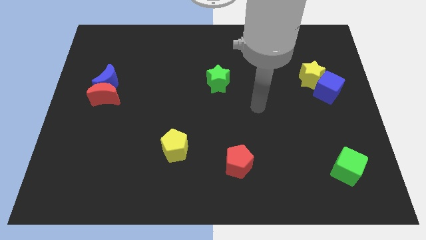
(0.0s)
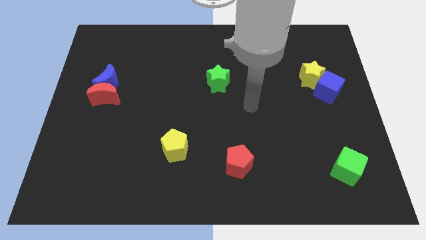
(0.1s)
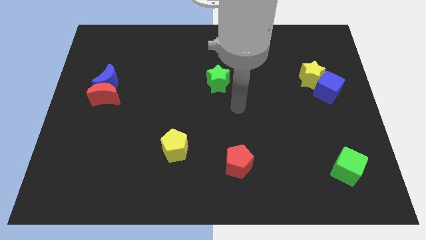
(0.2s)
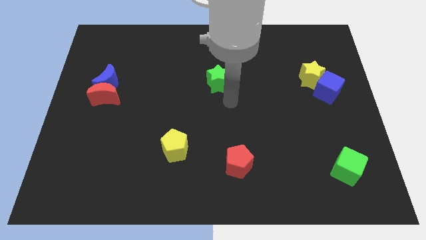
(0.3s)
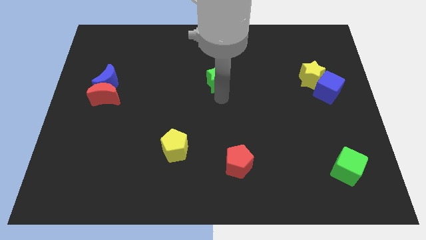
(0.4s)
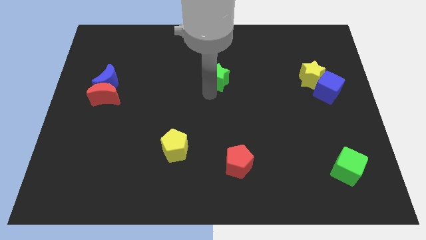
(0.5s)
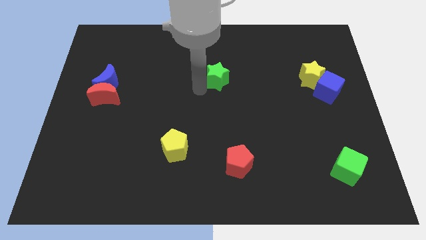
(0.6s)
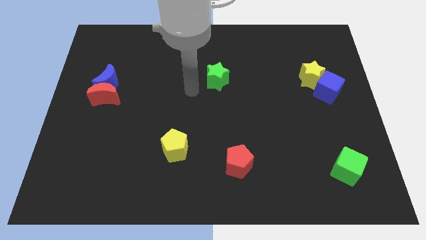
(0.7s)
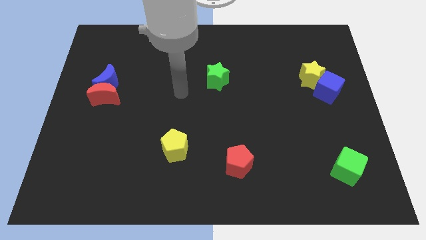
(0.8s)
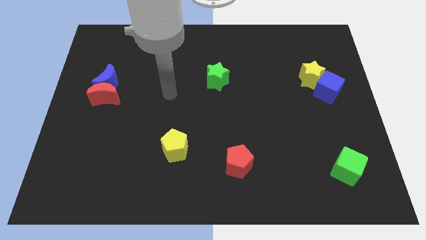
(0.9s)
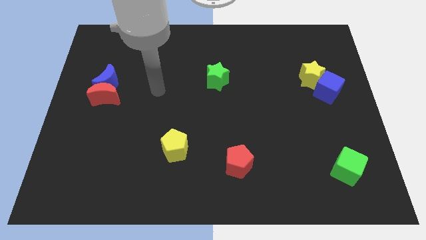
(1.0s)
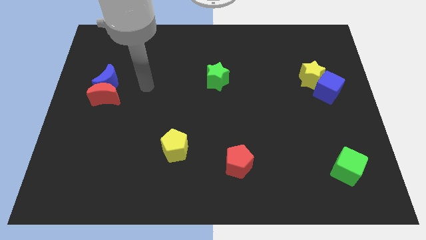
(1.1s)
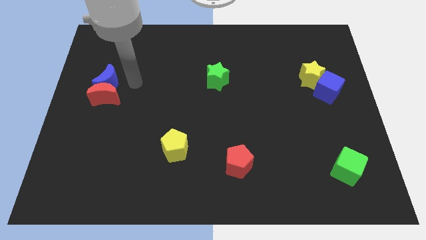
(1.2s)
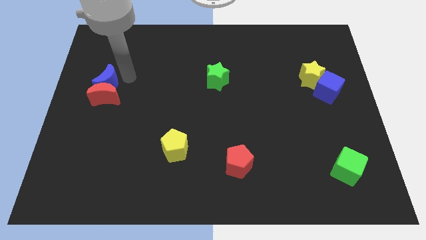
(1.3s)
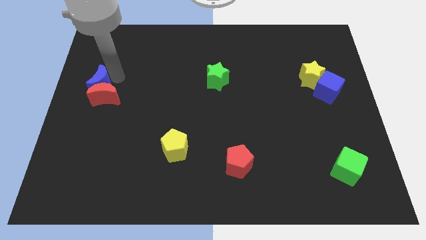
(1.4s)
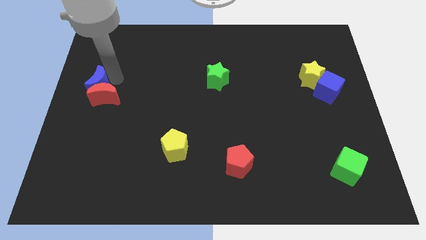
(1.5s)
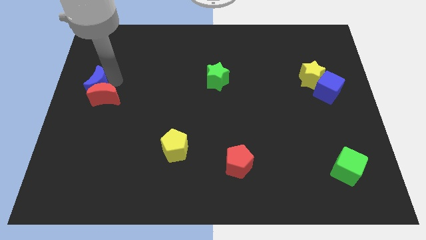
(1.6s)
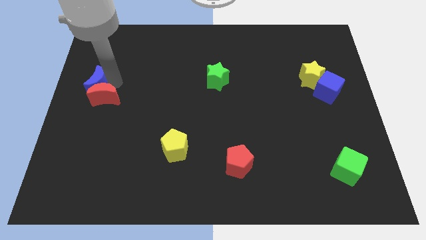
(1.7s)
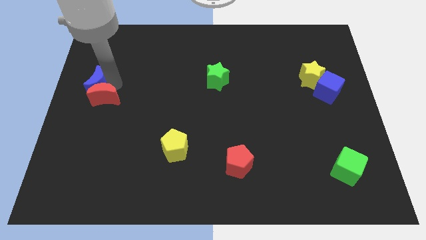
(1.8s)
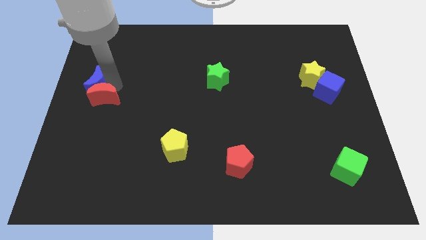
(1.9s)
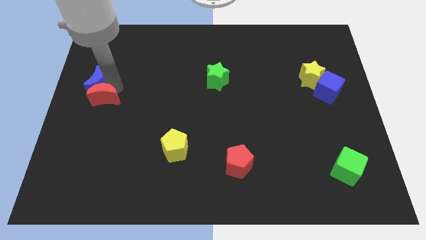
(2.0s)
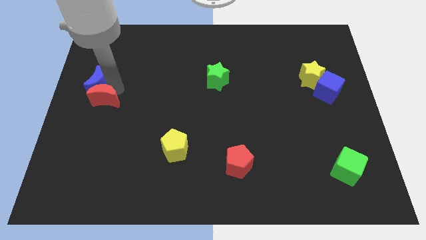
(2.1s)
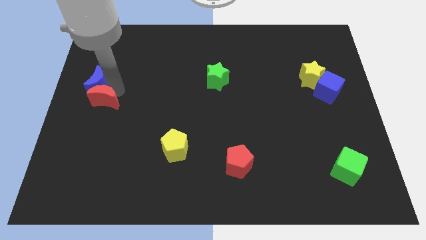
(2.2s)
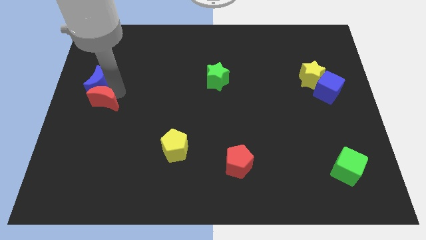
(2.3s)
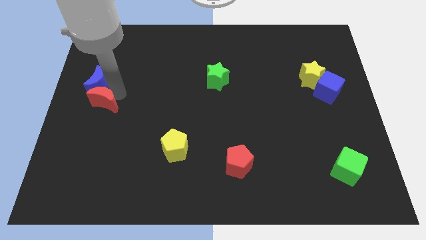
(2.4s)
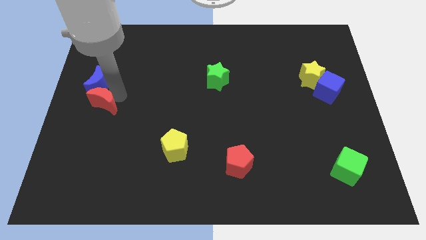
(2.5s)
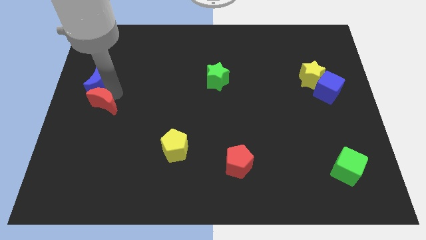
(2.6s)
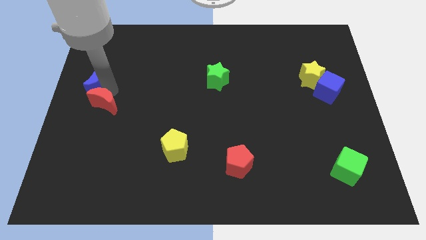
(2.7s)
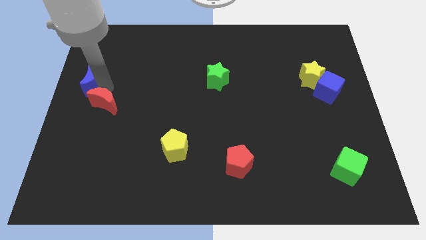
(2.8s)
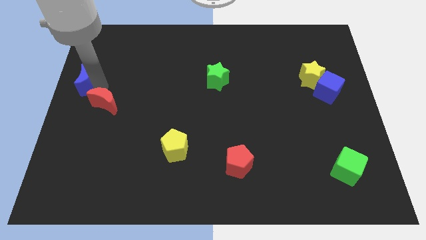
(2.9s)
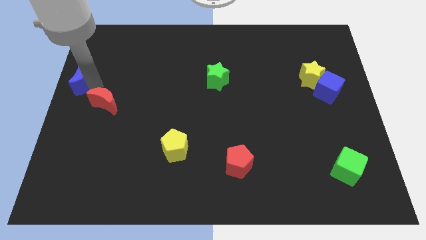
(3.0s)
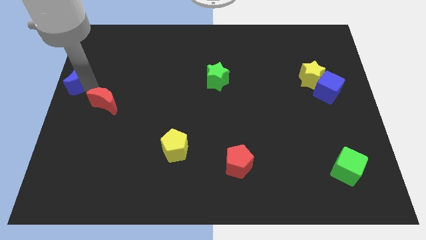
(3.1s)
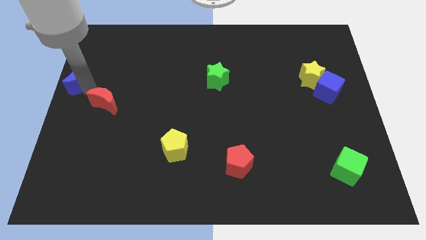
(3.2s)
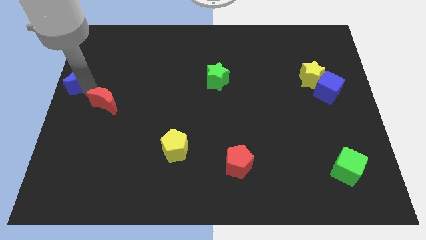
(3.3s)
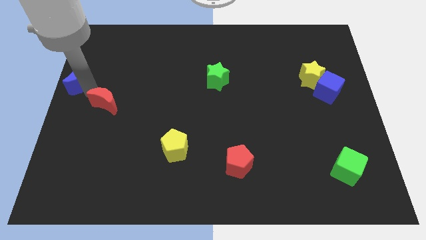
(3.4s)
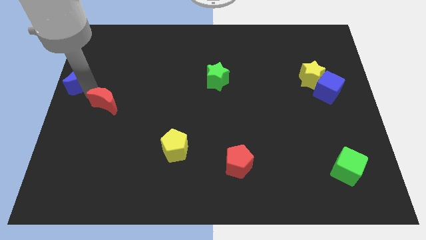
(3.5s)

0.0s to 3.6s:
move the red moon away from the blue moon

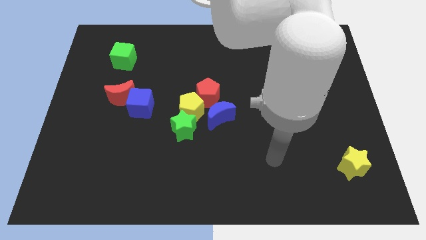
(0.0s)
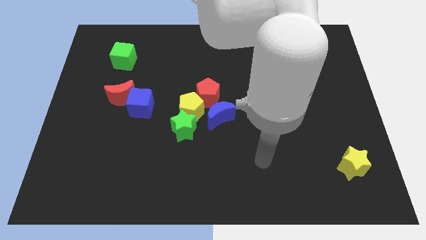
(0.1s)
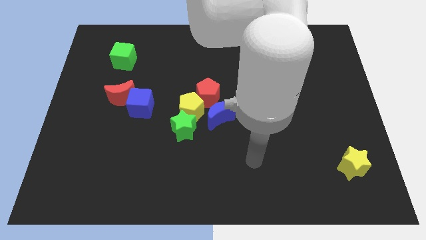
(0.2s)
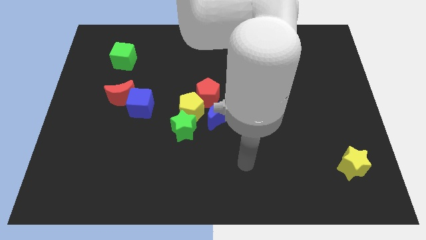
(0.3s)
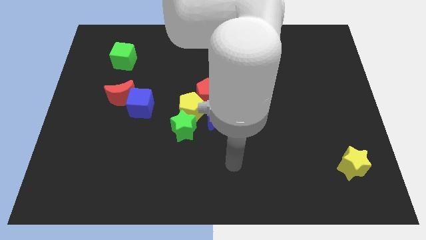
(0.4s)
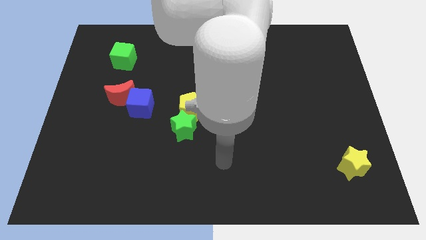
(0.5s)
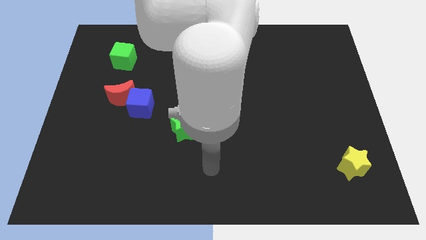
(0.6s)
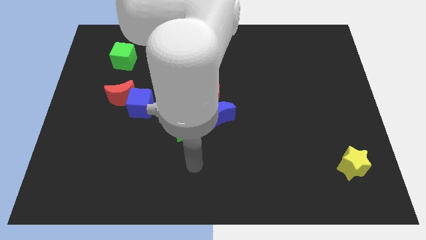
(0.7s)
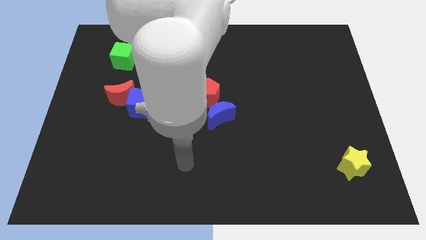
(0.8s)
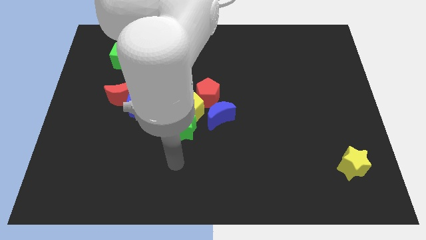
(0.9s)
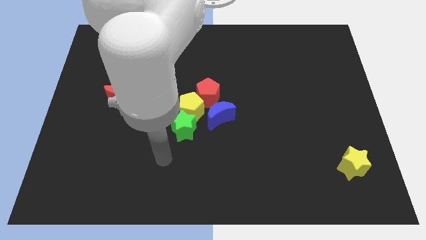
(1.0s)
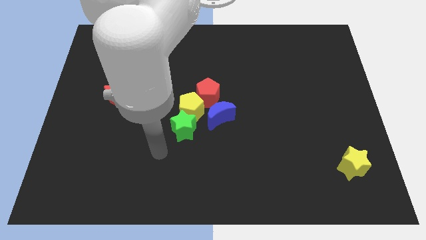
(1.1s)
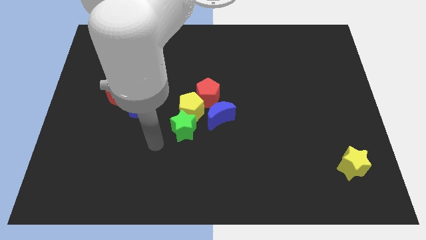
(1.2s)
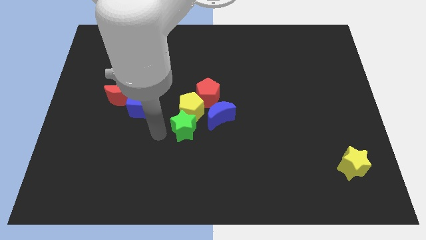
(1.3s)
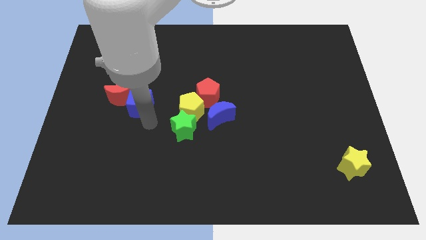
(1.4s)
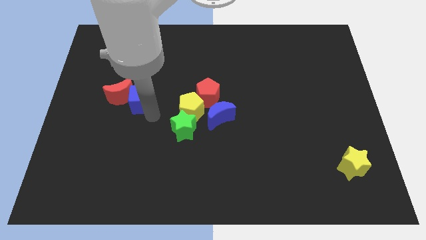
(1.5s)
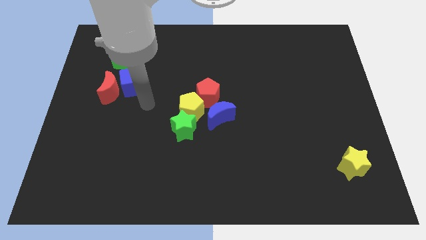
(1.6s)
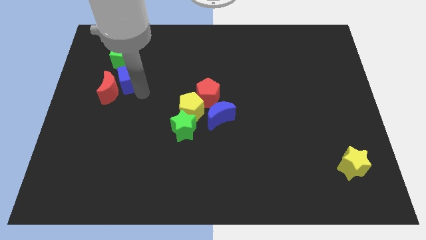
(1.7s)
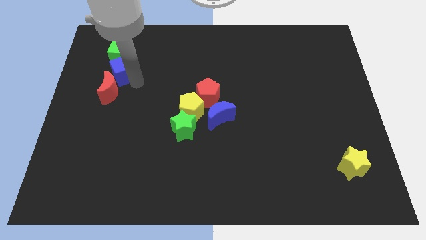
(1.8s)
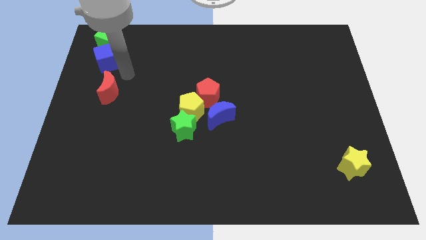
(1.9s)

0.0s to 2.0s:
separate the red moon from the blue cube

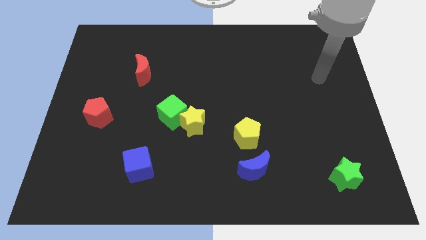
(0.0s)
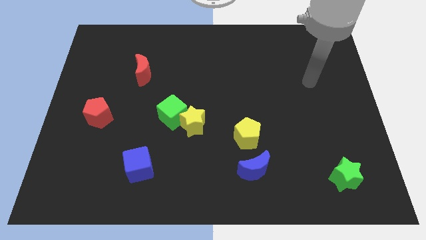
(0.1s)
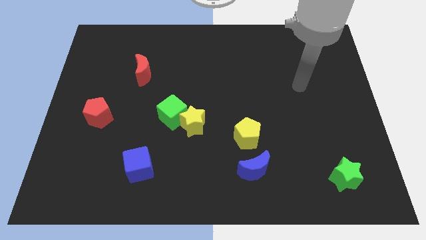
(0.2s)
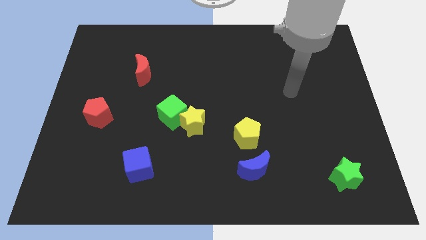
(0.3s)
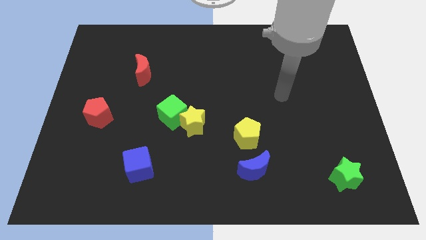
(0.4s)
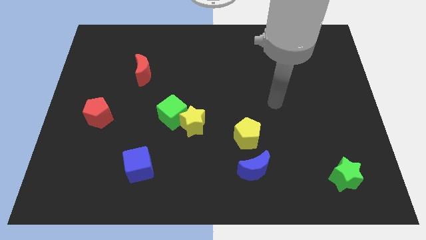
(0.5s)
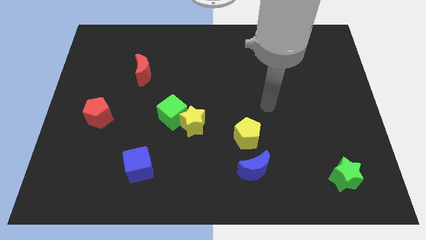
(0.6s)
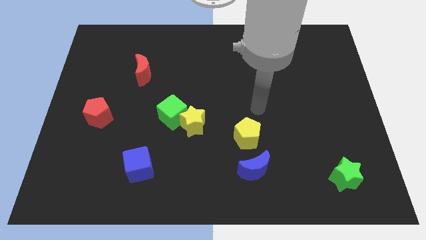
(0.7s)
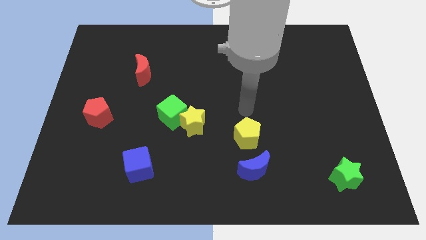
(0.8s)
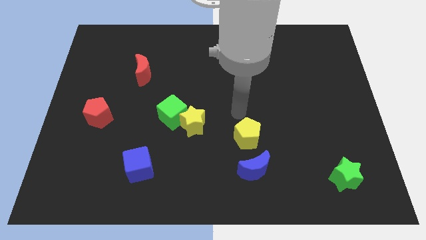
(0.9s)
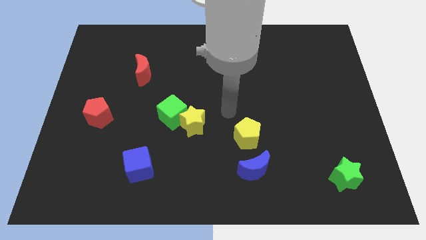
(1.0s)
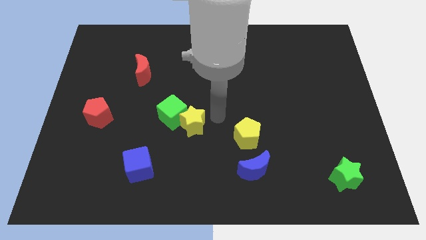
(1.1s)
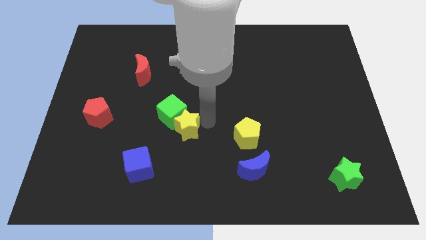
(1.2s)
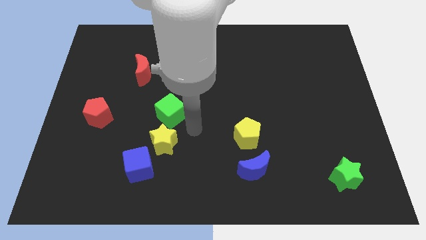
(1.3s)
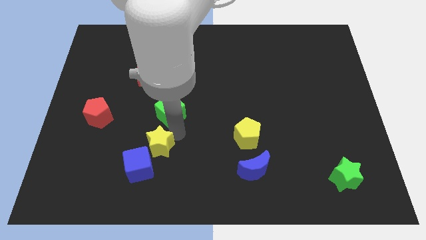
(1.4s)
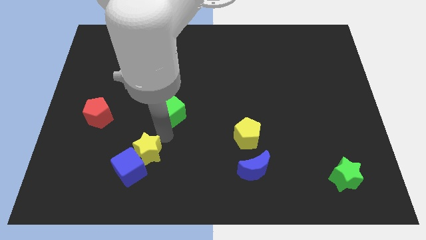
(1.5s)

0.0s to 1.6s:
separate the green cube from the yellow star

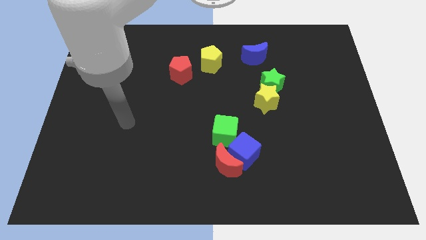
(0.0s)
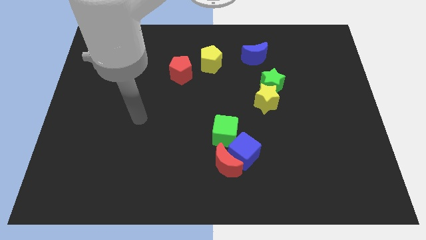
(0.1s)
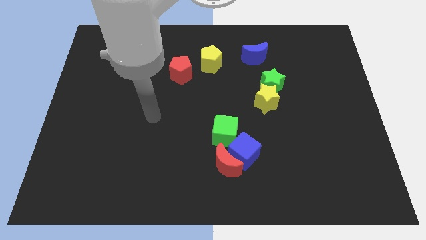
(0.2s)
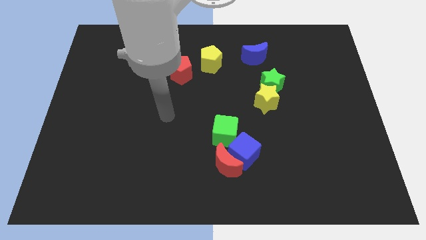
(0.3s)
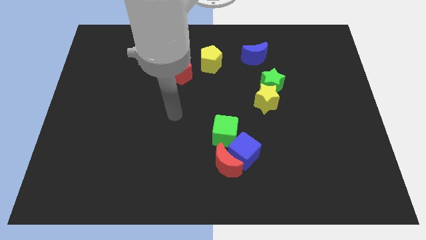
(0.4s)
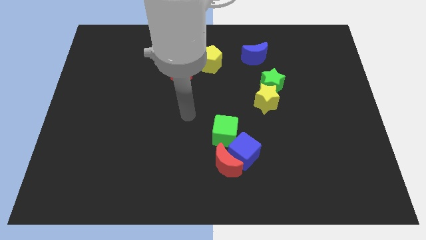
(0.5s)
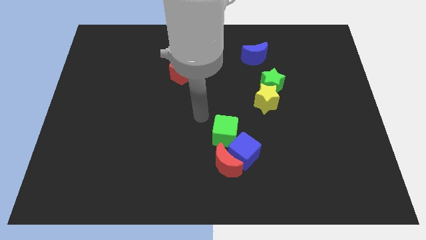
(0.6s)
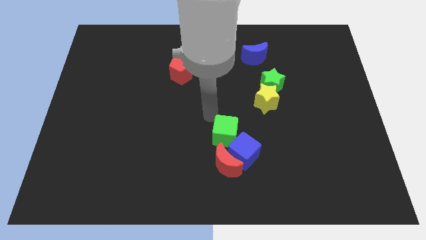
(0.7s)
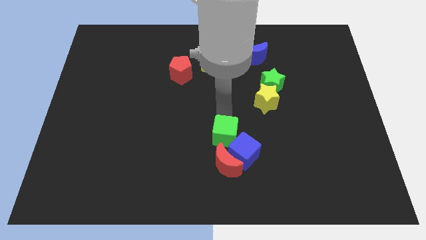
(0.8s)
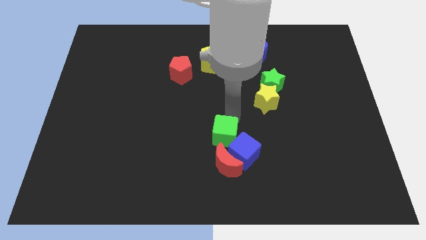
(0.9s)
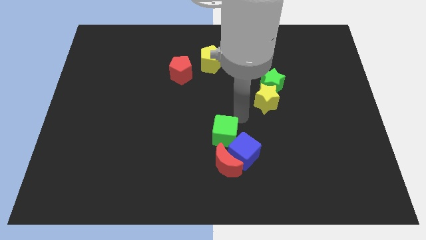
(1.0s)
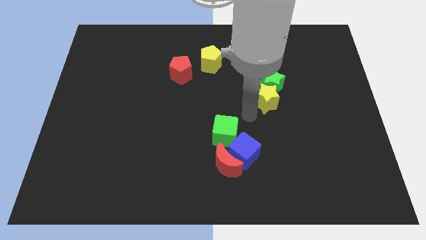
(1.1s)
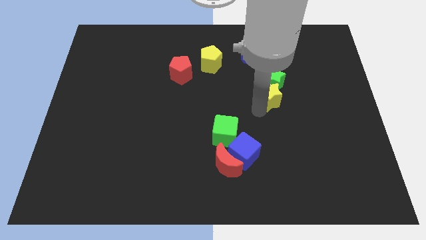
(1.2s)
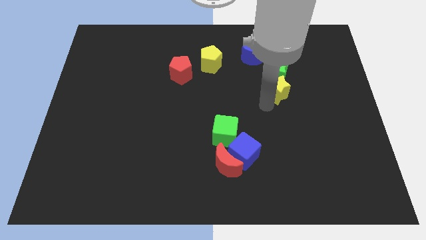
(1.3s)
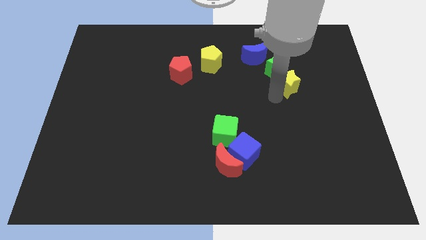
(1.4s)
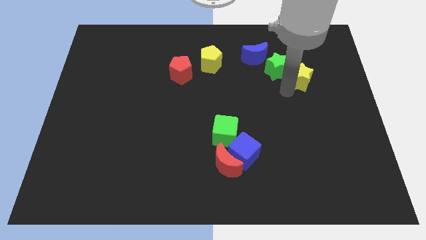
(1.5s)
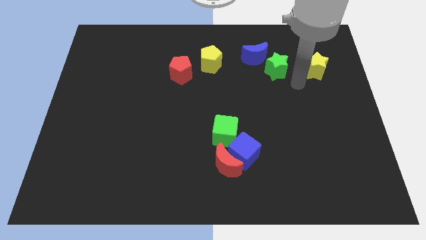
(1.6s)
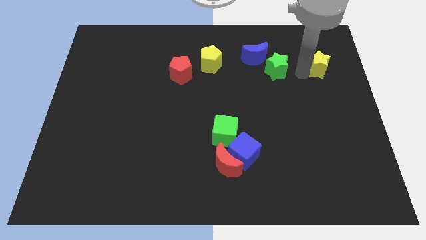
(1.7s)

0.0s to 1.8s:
pull the green star apart from the yellow star

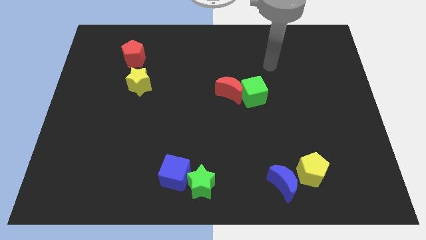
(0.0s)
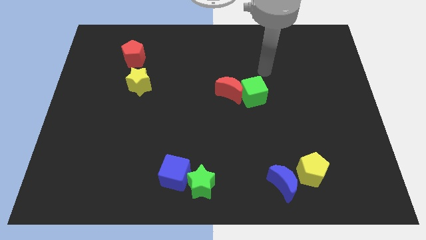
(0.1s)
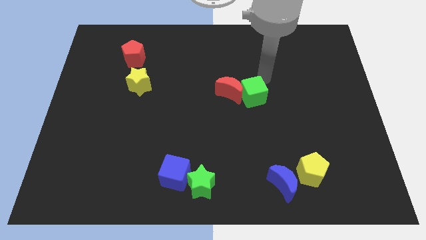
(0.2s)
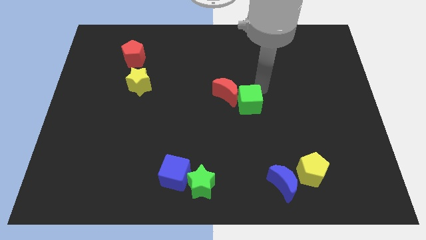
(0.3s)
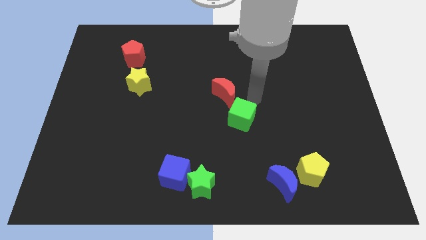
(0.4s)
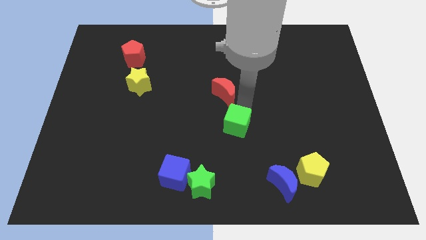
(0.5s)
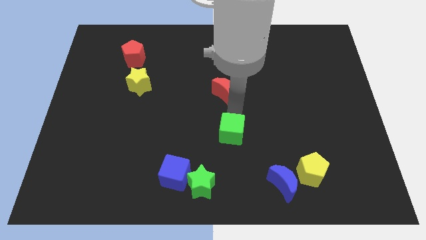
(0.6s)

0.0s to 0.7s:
move the red moon away from the green cube
